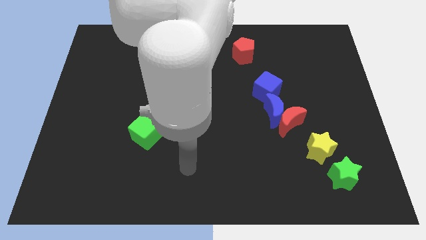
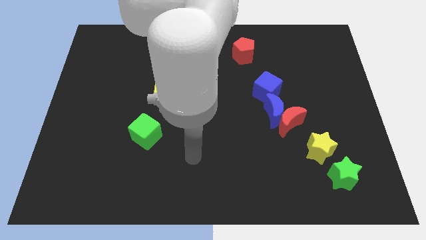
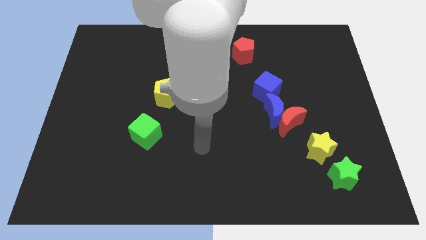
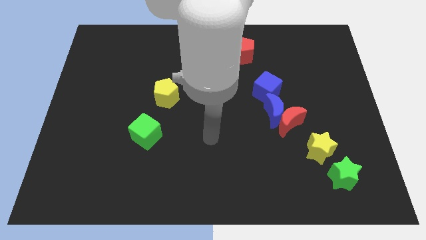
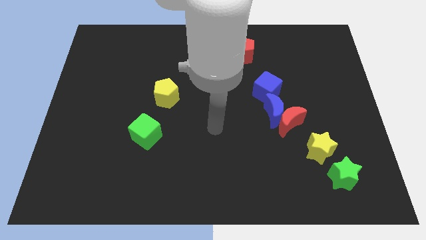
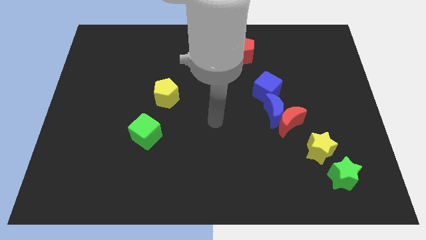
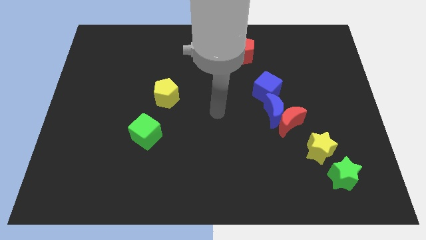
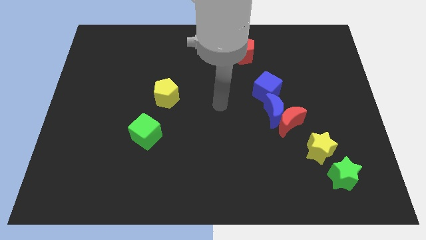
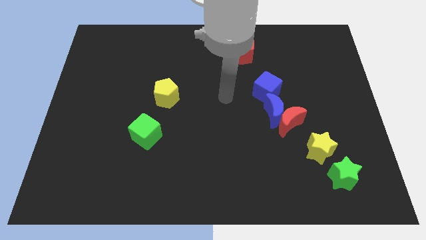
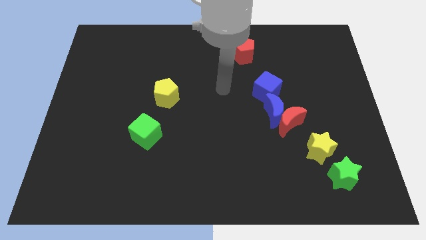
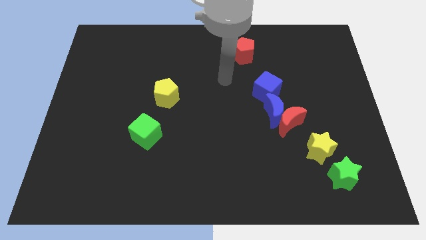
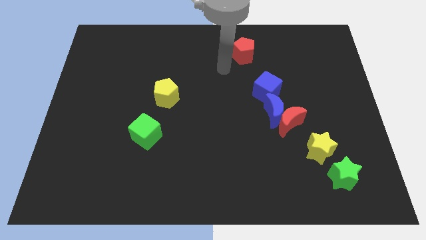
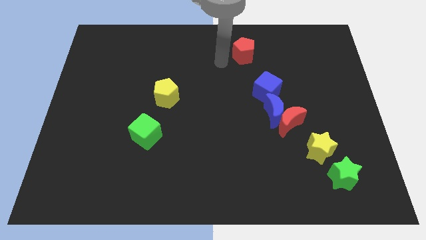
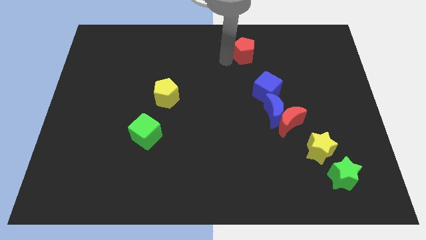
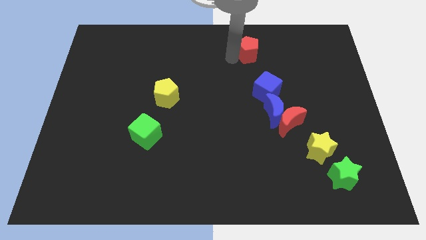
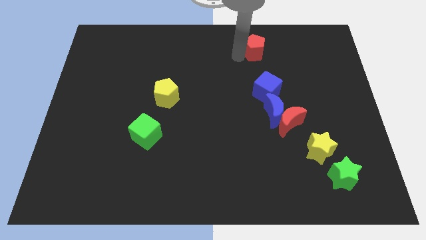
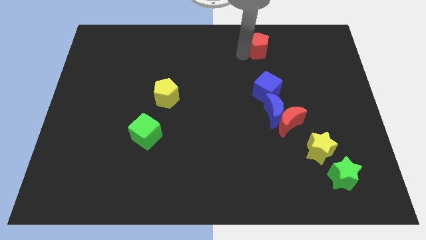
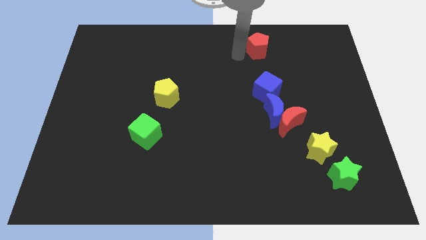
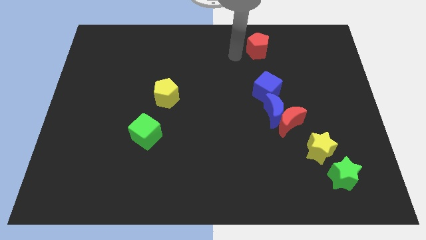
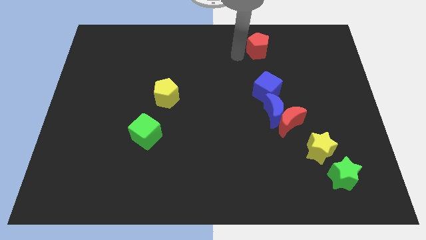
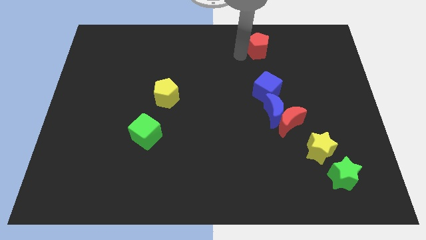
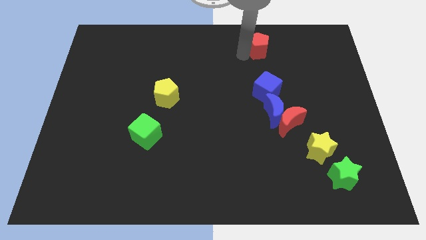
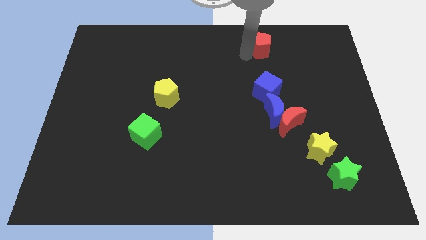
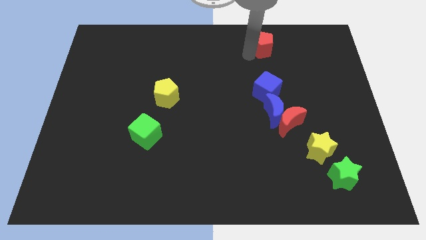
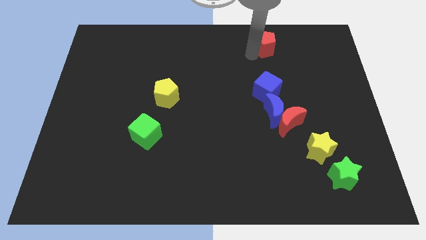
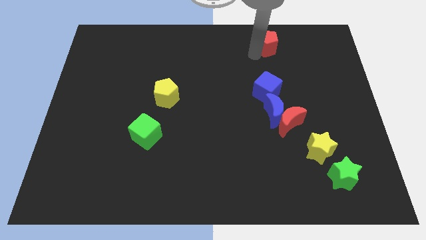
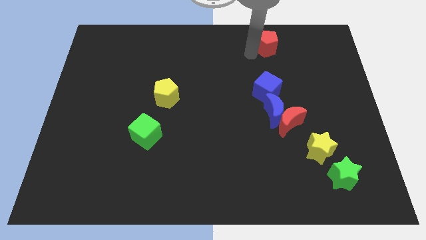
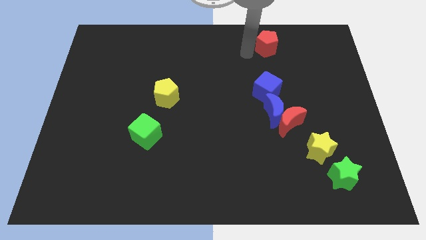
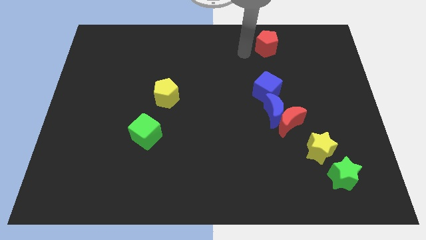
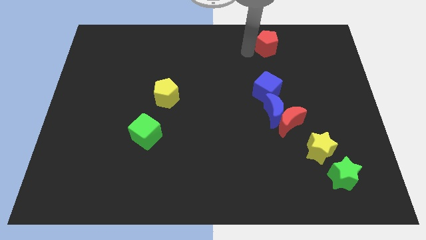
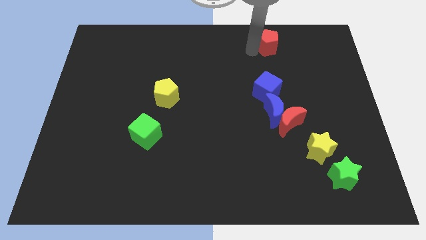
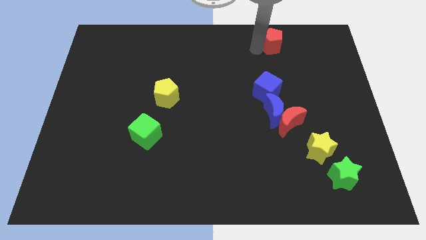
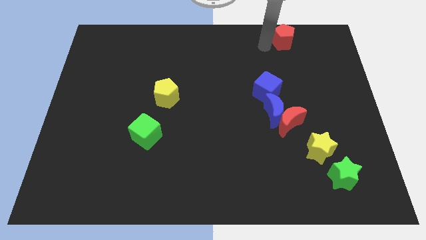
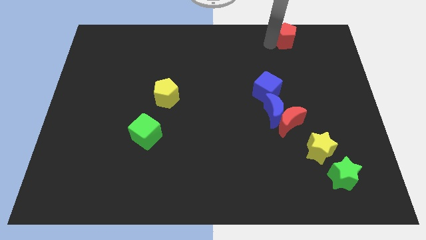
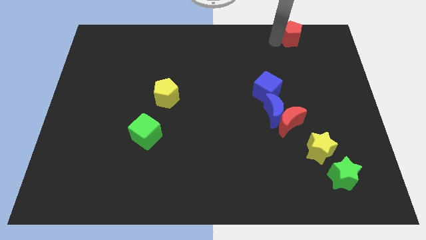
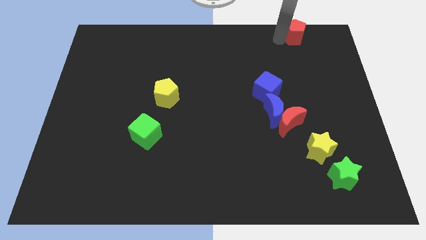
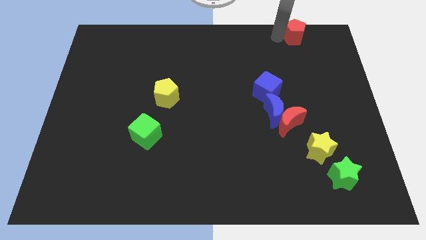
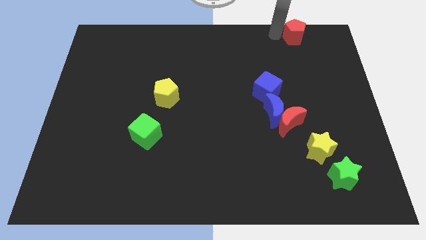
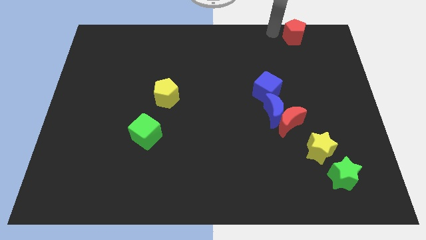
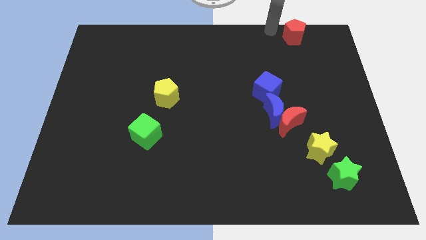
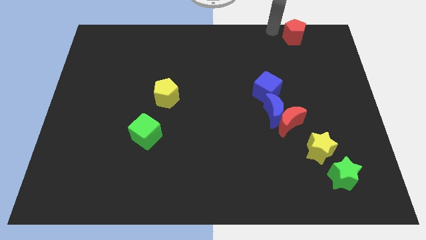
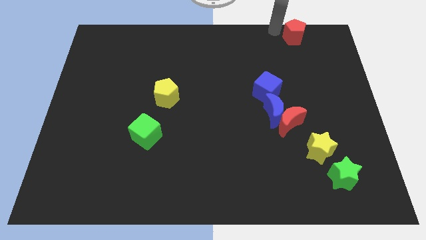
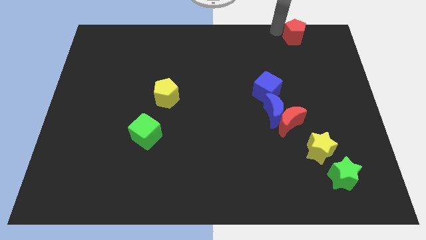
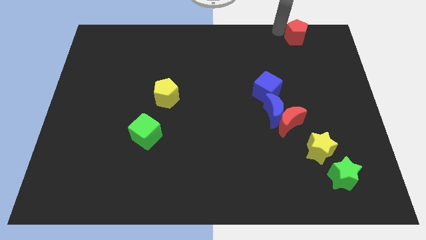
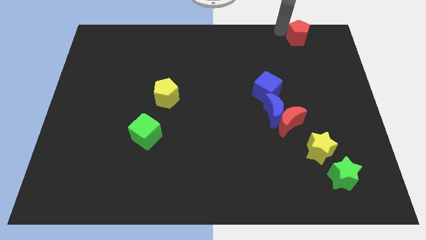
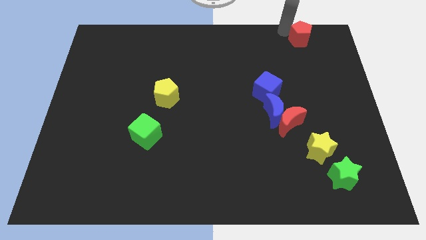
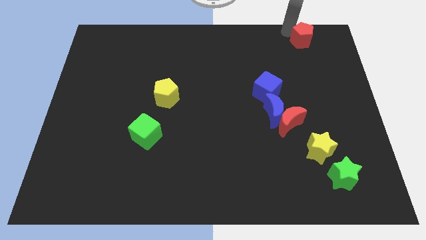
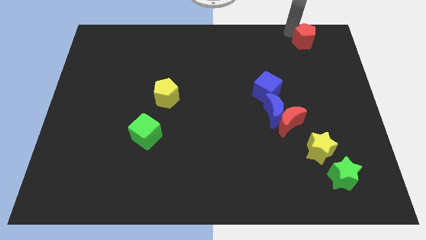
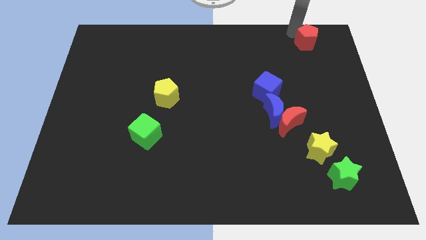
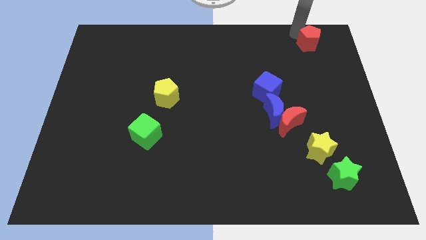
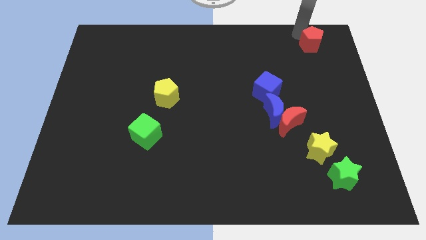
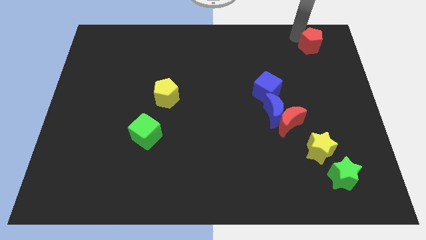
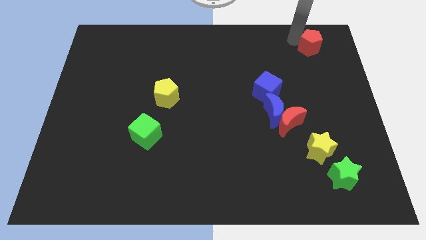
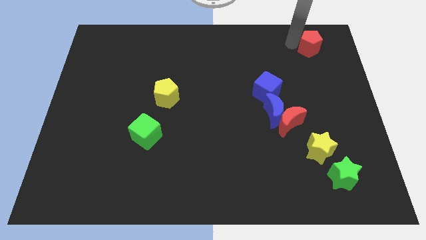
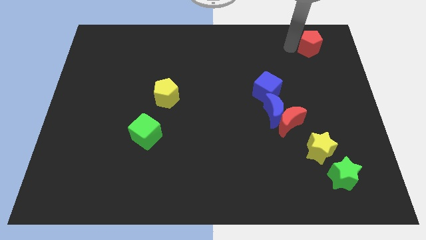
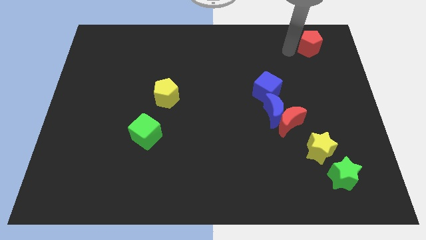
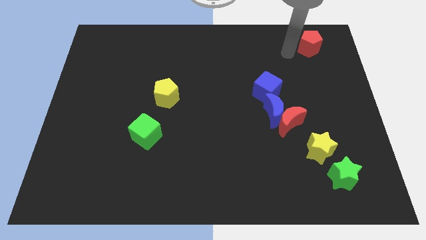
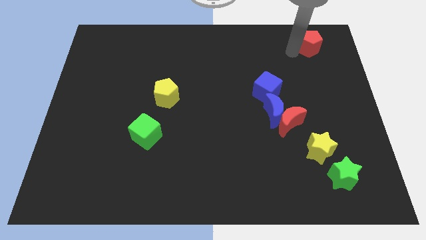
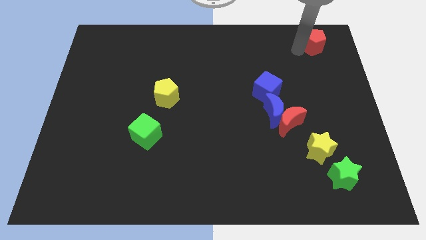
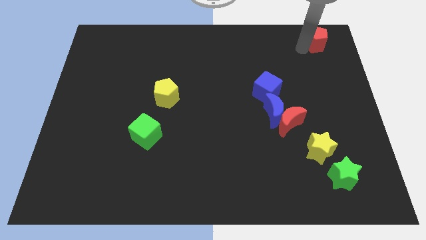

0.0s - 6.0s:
put the red pentagon to the top right corner

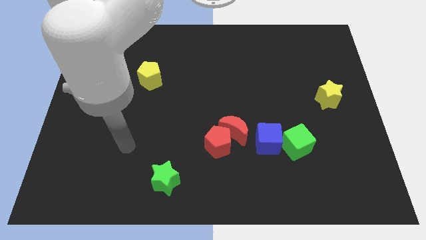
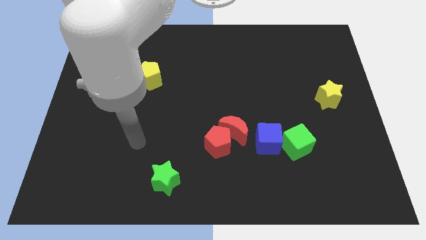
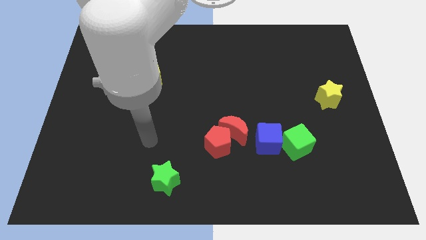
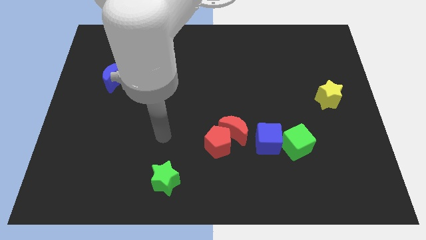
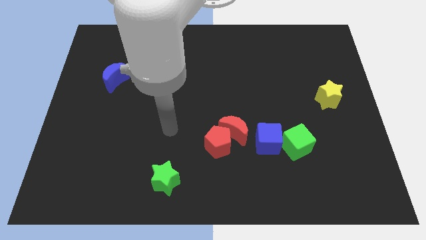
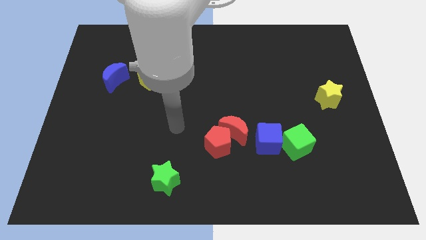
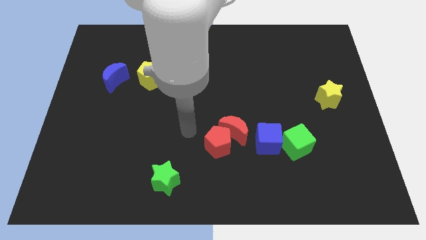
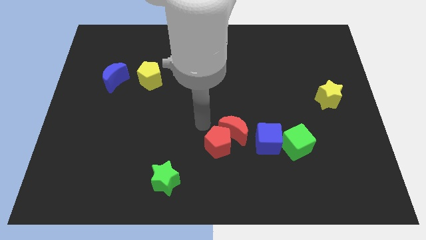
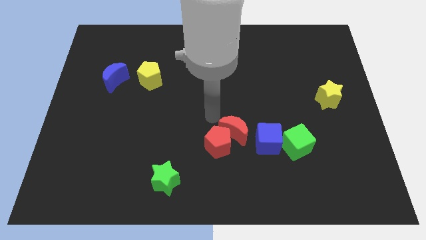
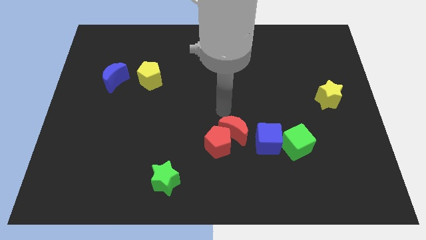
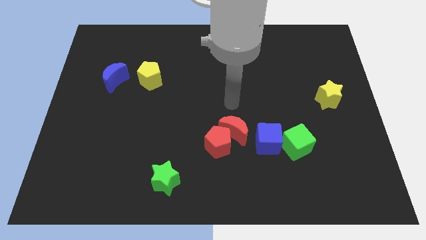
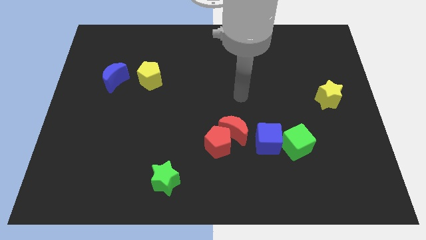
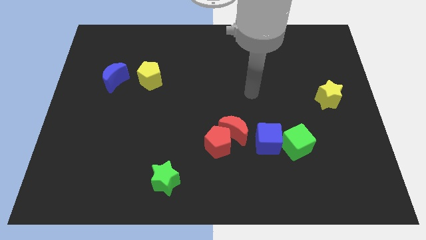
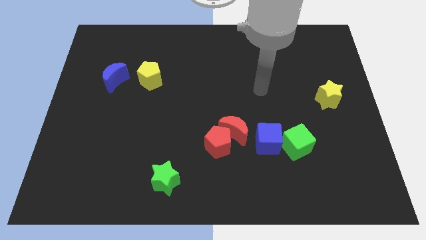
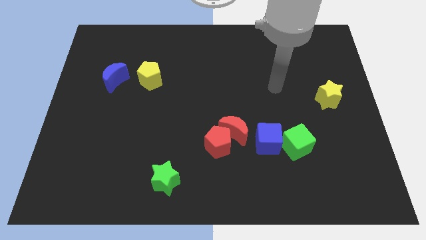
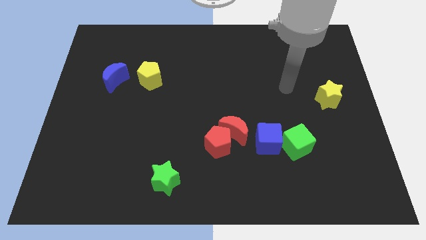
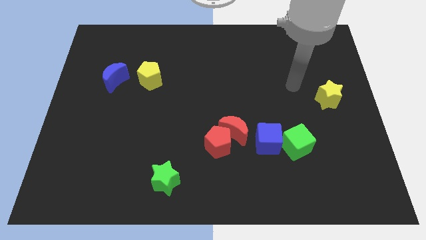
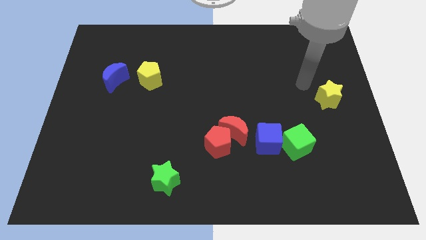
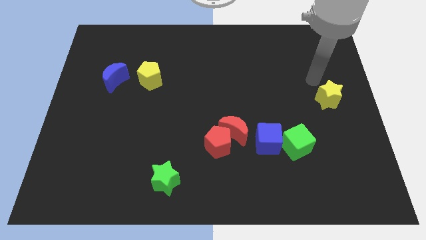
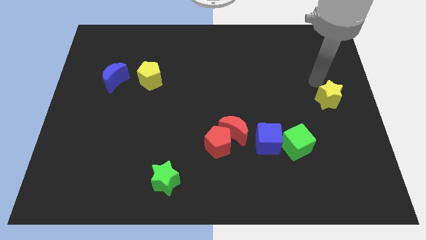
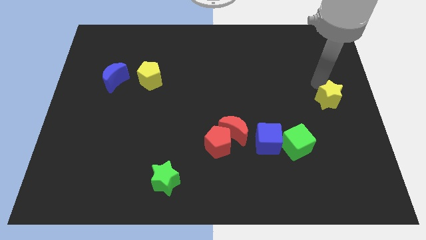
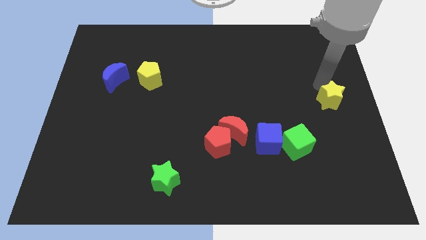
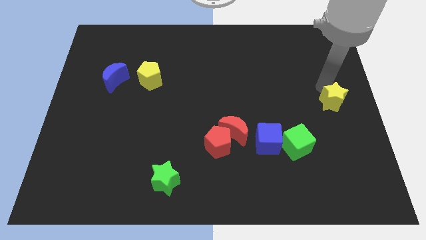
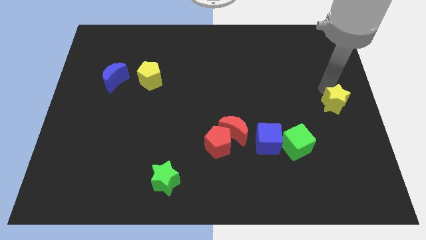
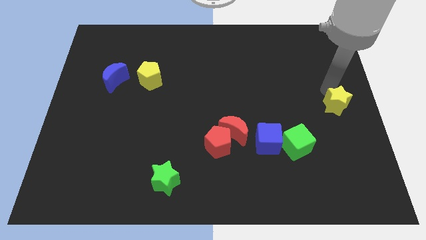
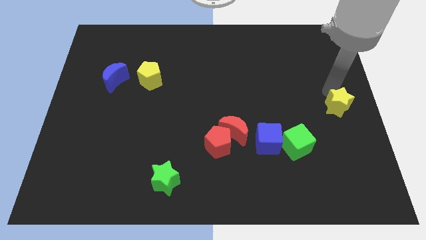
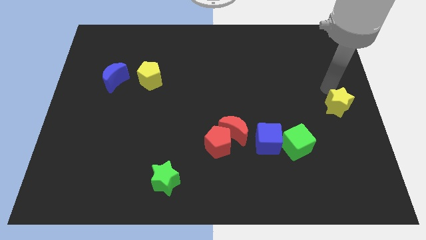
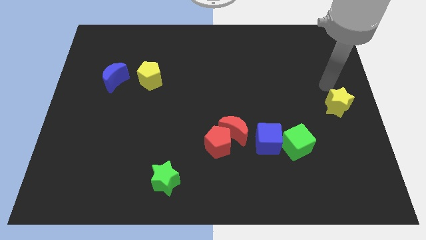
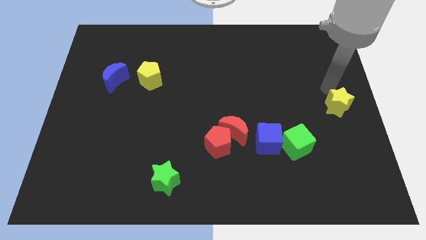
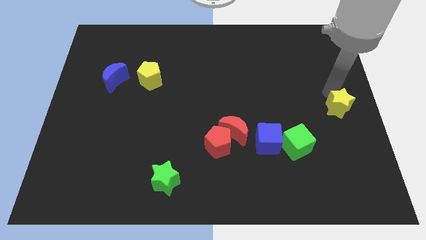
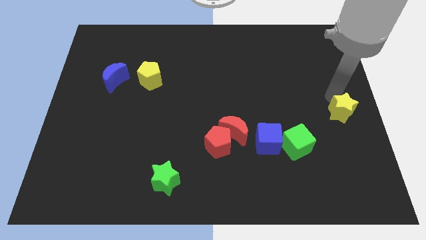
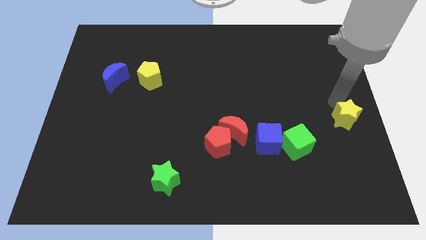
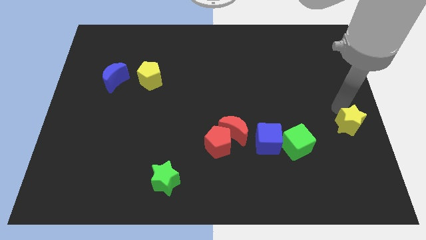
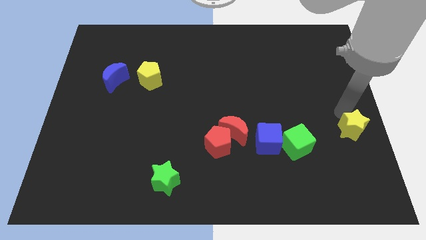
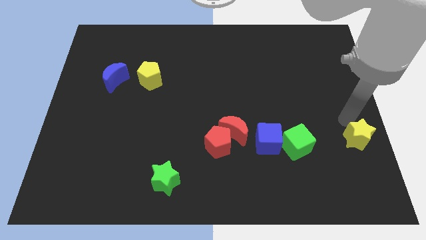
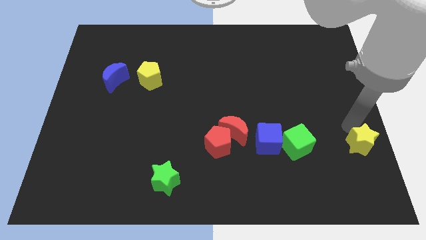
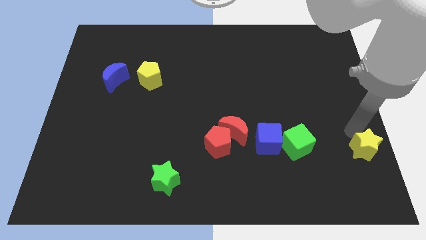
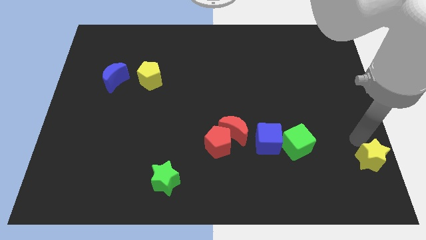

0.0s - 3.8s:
push the yellow star to the lower right corner
